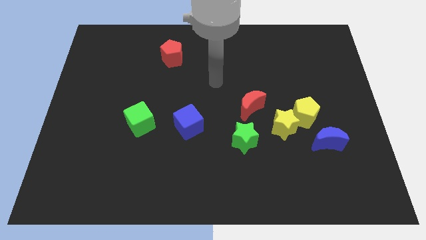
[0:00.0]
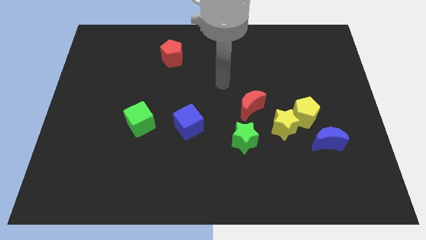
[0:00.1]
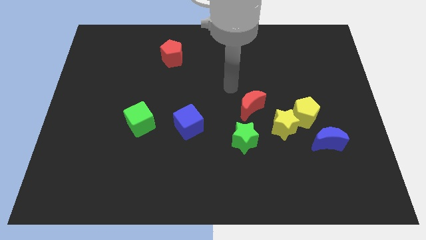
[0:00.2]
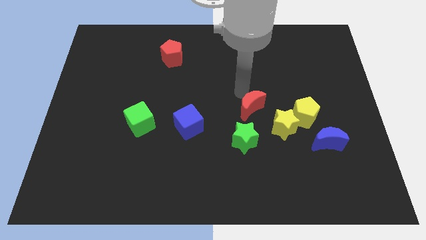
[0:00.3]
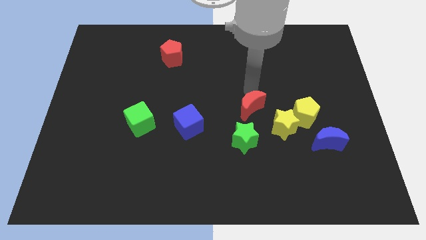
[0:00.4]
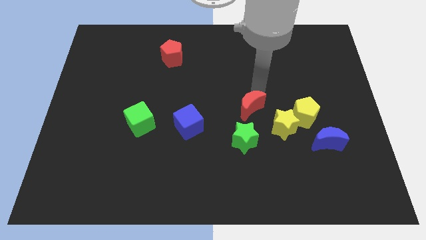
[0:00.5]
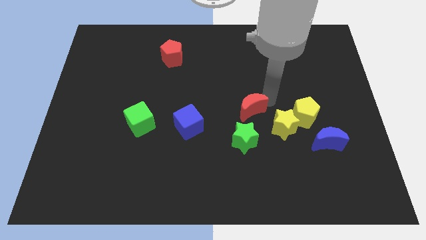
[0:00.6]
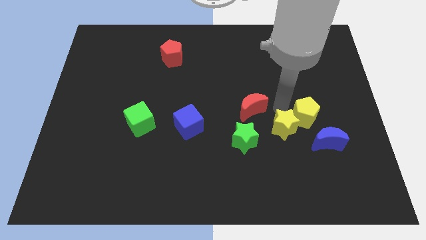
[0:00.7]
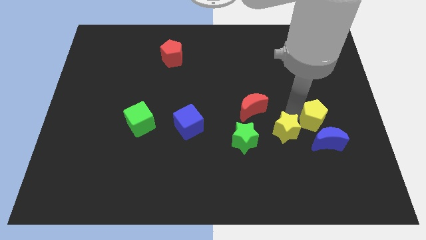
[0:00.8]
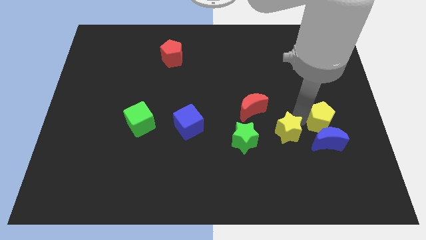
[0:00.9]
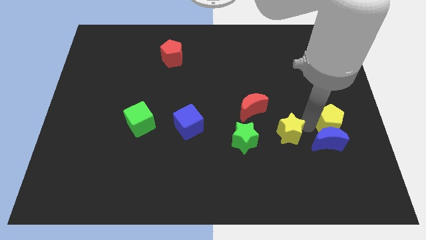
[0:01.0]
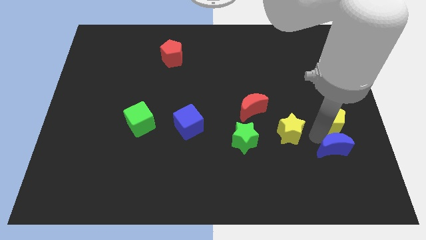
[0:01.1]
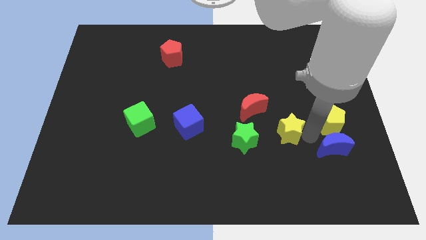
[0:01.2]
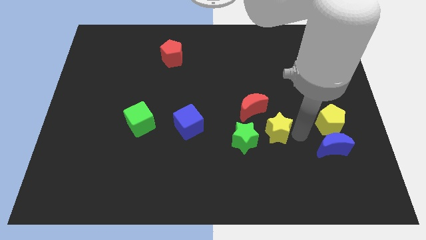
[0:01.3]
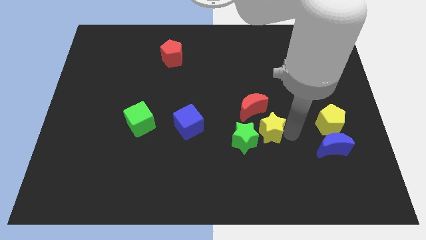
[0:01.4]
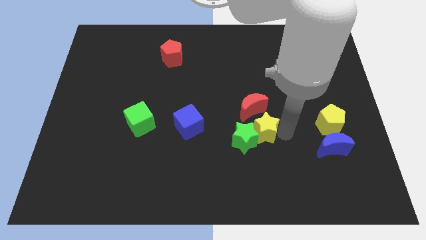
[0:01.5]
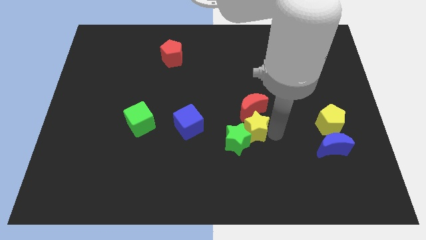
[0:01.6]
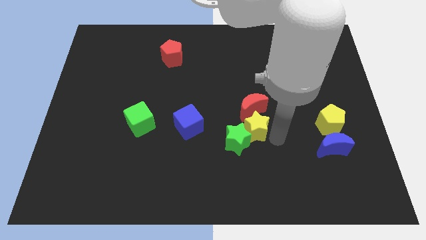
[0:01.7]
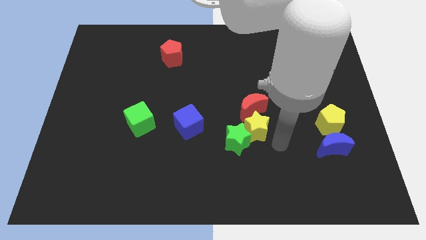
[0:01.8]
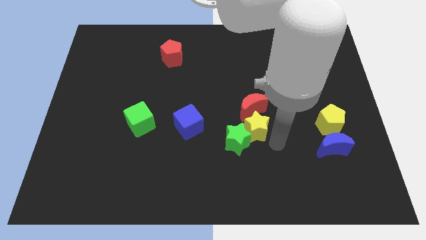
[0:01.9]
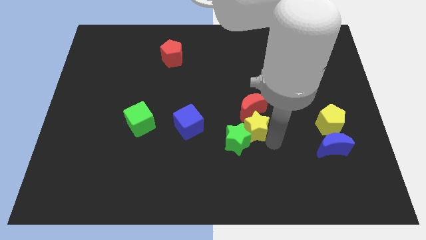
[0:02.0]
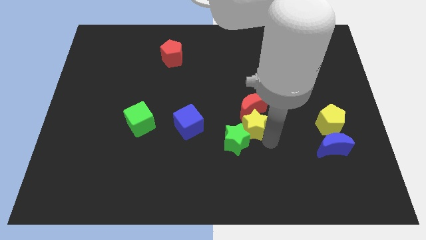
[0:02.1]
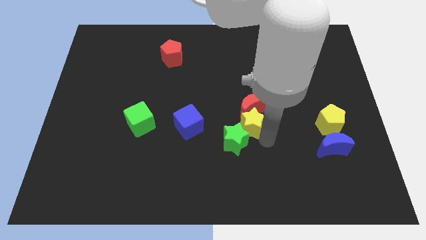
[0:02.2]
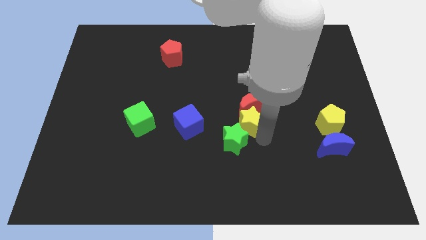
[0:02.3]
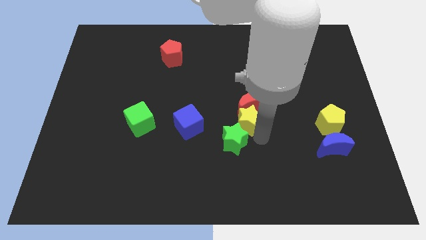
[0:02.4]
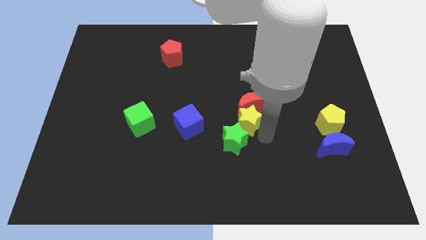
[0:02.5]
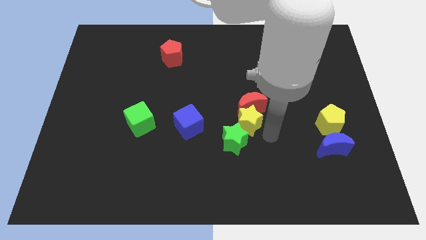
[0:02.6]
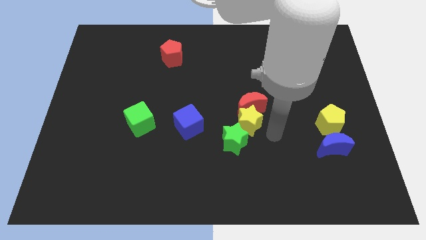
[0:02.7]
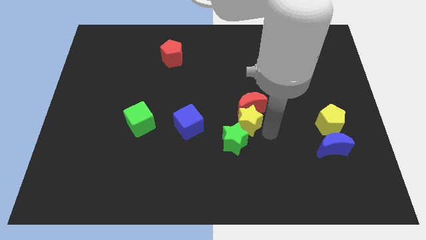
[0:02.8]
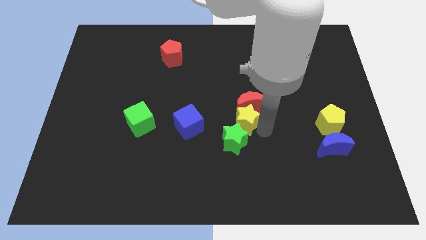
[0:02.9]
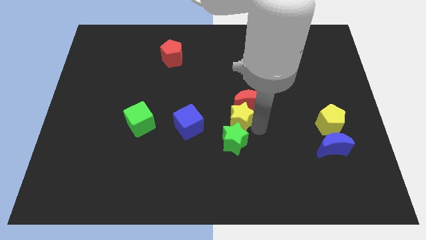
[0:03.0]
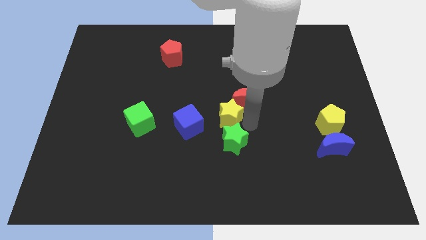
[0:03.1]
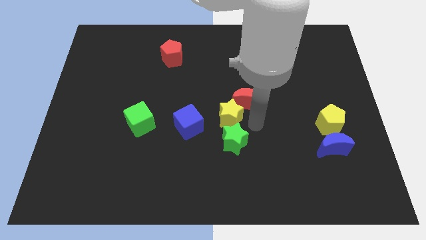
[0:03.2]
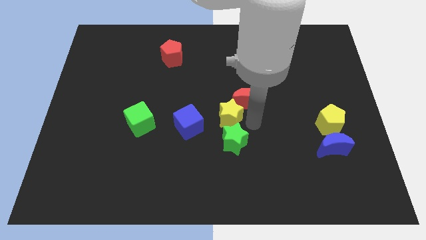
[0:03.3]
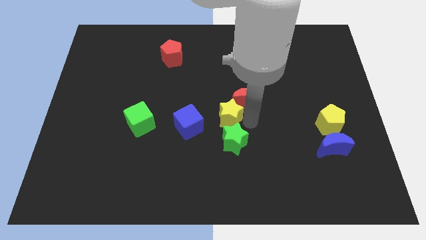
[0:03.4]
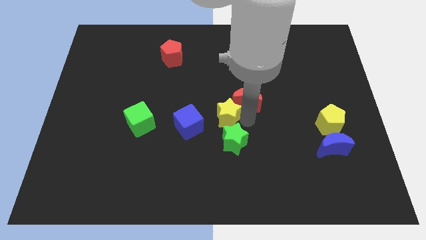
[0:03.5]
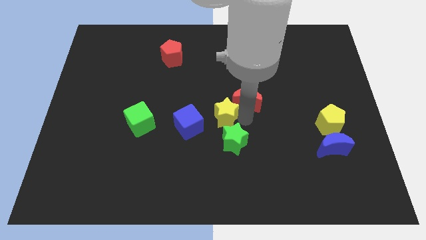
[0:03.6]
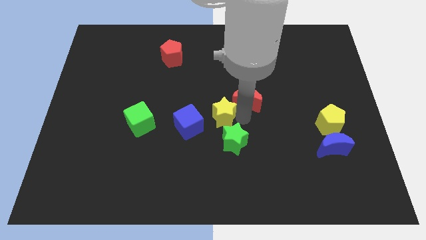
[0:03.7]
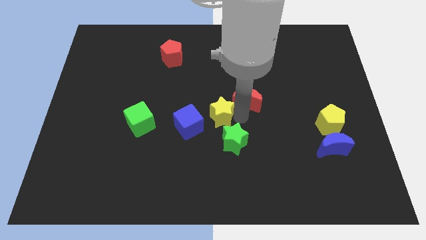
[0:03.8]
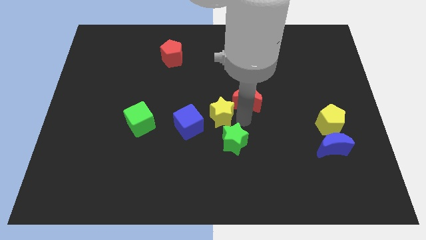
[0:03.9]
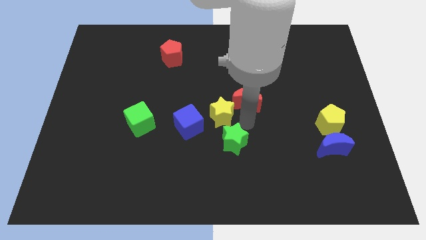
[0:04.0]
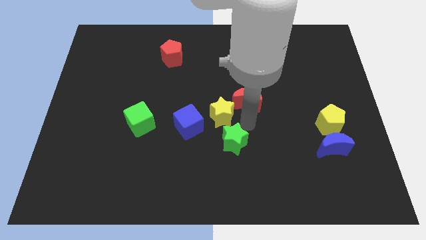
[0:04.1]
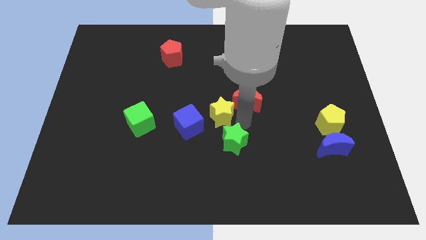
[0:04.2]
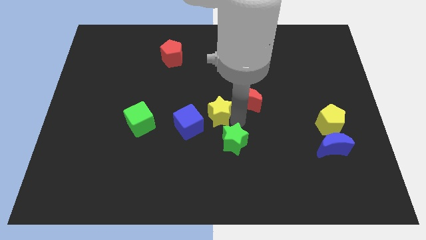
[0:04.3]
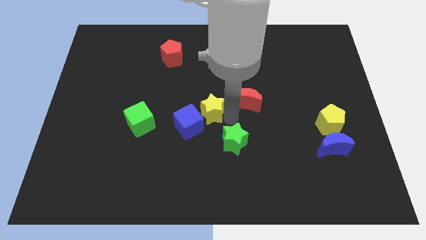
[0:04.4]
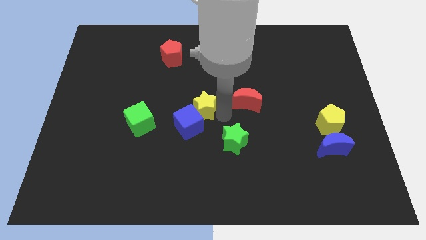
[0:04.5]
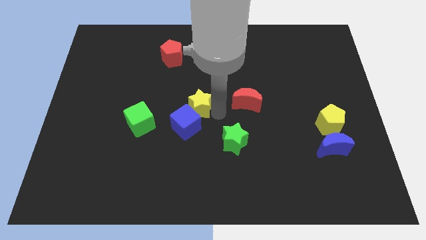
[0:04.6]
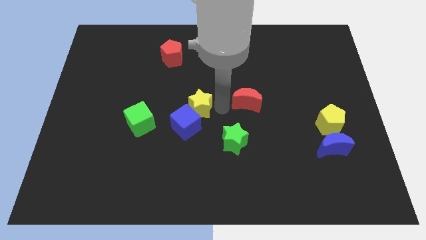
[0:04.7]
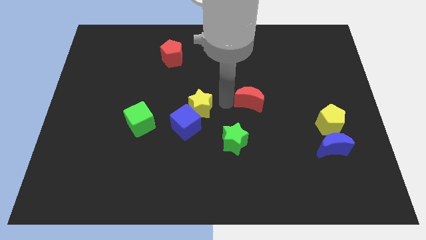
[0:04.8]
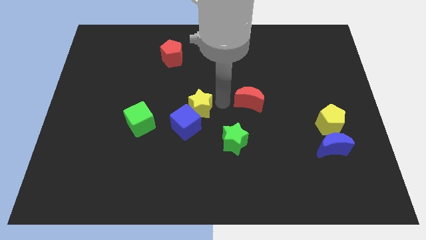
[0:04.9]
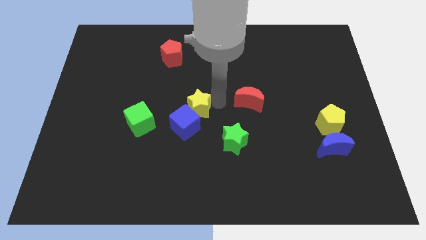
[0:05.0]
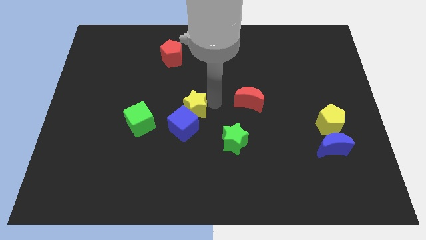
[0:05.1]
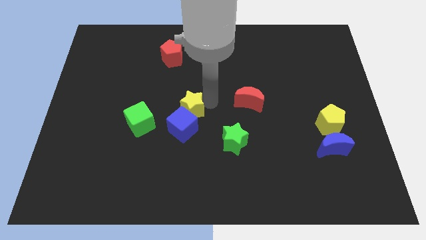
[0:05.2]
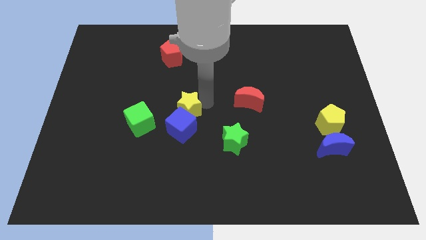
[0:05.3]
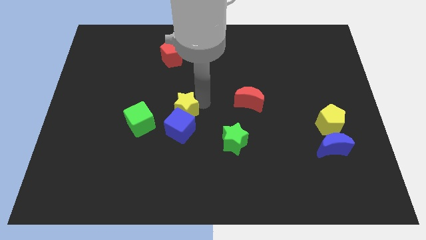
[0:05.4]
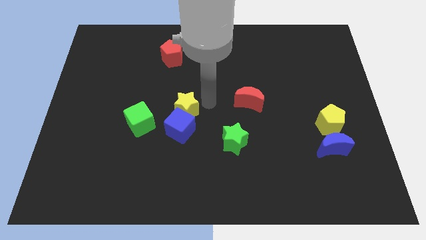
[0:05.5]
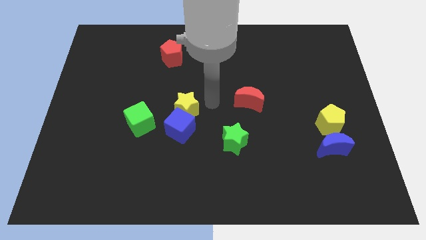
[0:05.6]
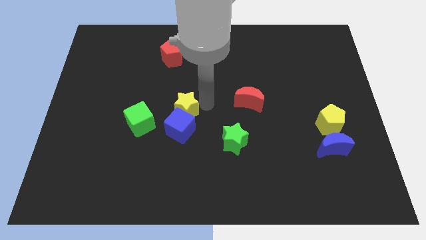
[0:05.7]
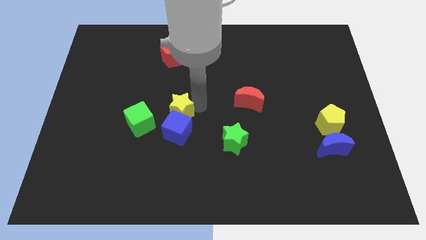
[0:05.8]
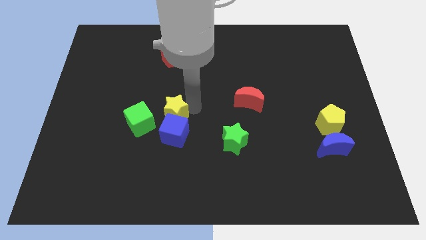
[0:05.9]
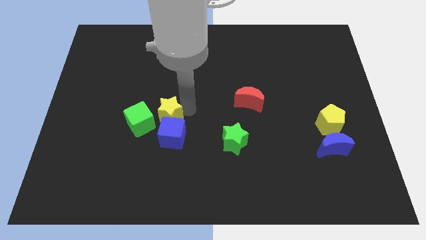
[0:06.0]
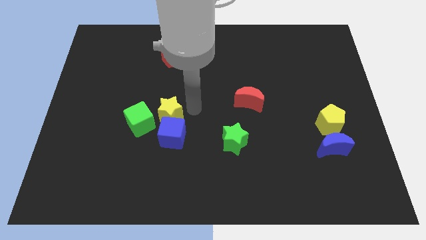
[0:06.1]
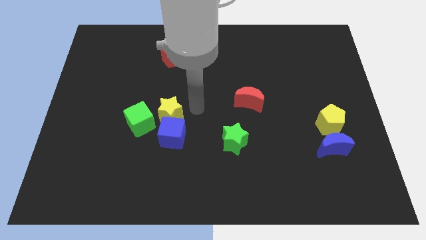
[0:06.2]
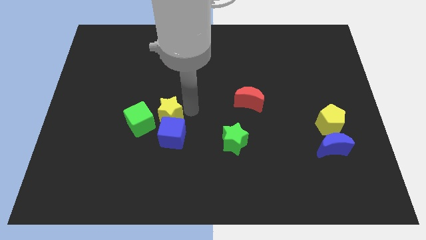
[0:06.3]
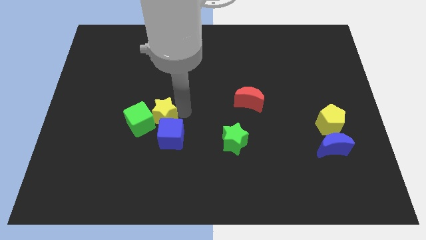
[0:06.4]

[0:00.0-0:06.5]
move the yellow star close to the green cube
